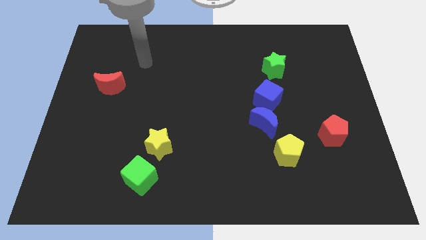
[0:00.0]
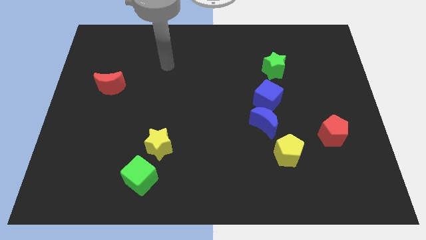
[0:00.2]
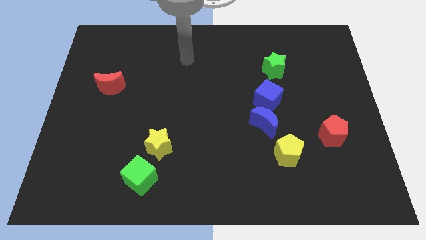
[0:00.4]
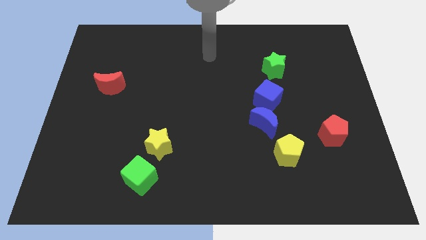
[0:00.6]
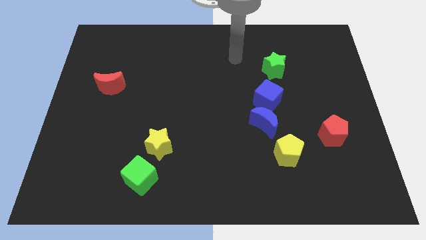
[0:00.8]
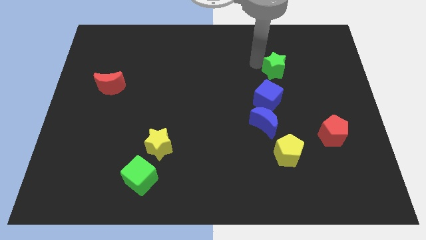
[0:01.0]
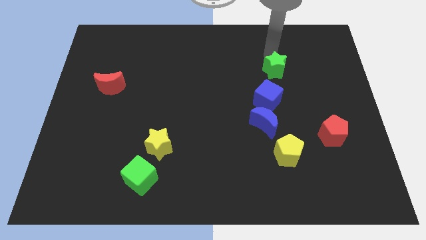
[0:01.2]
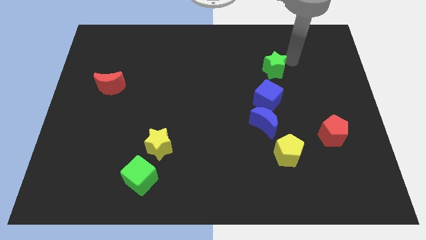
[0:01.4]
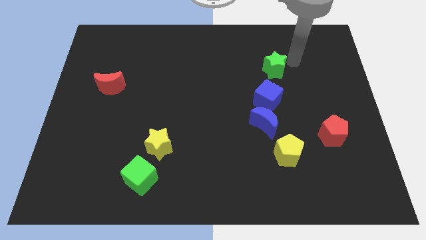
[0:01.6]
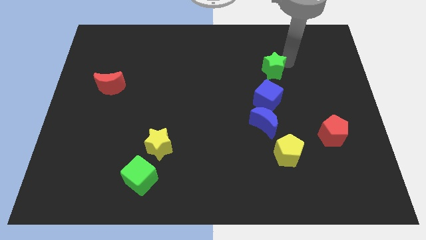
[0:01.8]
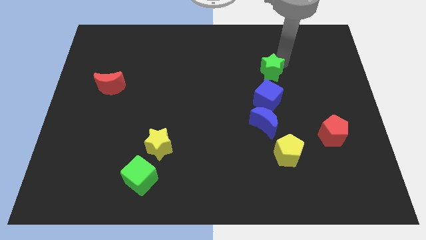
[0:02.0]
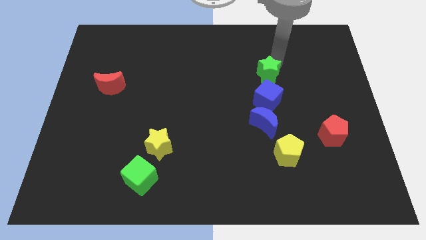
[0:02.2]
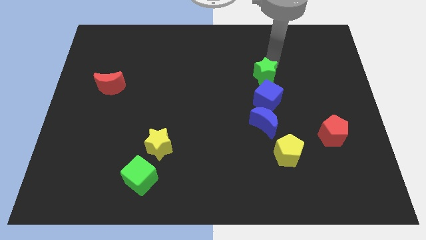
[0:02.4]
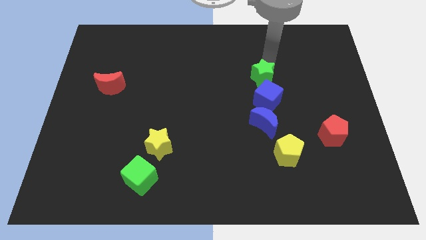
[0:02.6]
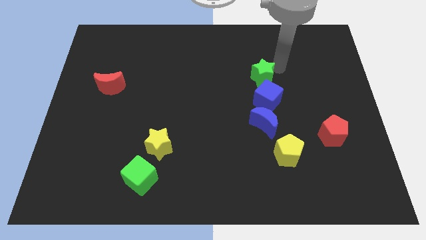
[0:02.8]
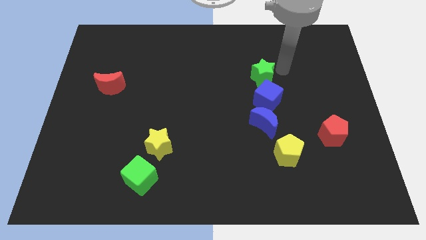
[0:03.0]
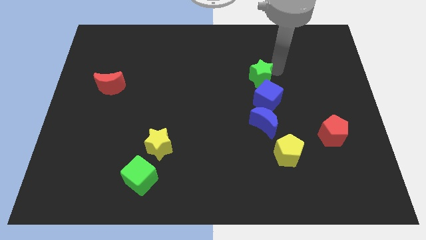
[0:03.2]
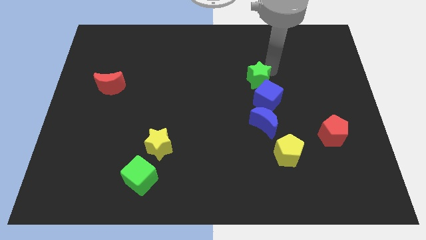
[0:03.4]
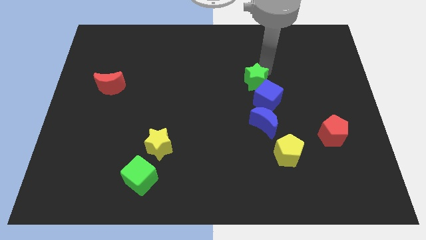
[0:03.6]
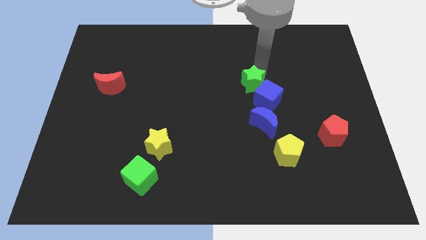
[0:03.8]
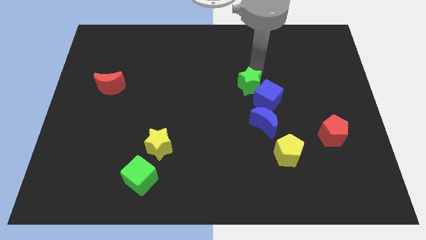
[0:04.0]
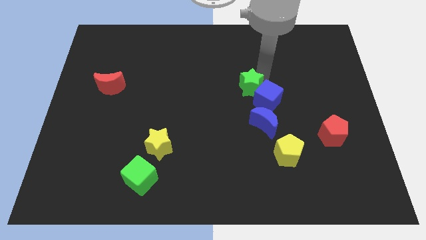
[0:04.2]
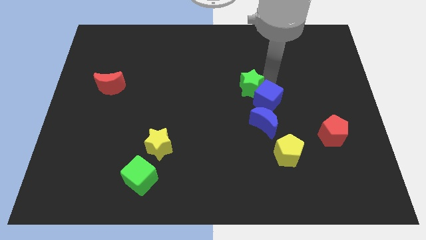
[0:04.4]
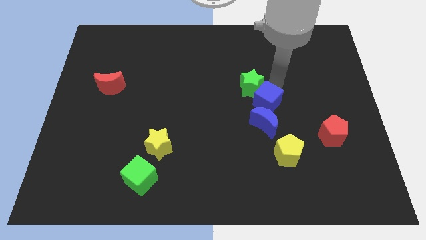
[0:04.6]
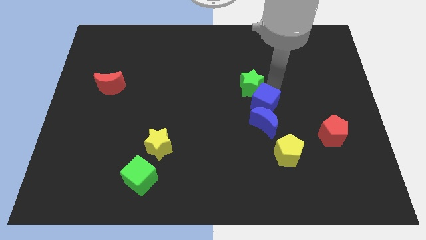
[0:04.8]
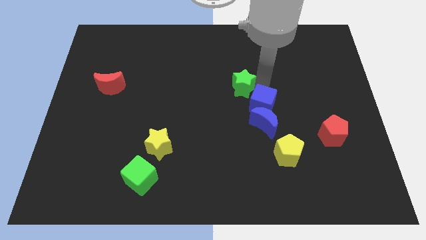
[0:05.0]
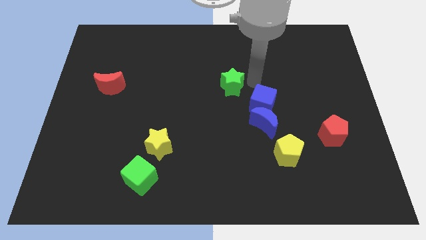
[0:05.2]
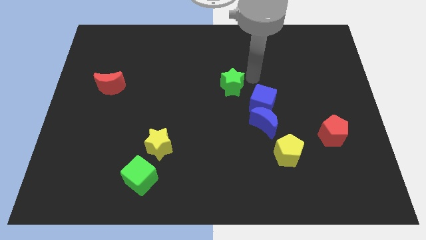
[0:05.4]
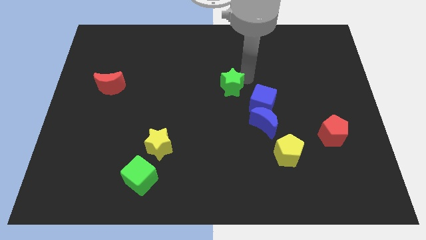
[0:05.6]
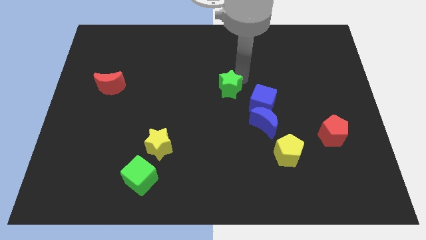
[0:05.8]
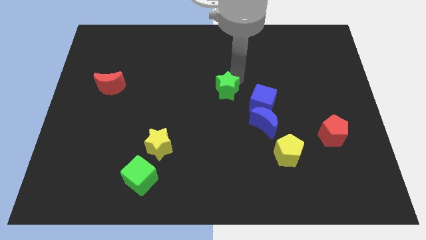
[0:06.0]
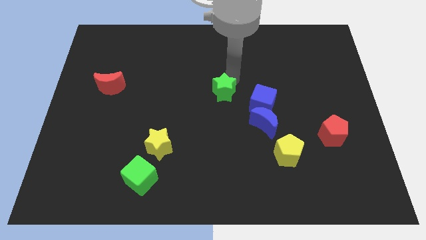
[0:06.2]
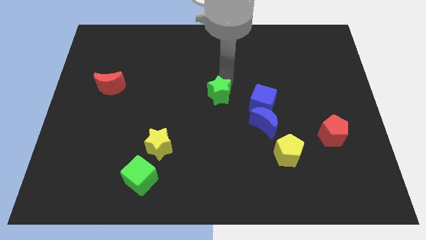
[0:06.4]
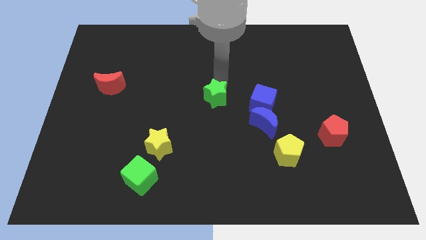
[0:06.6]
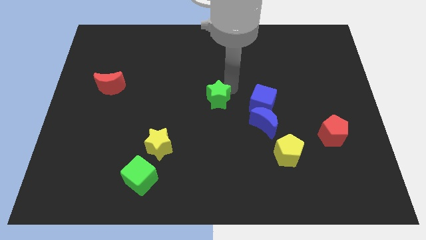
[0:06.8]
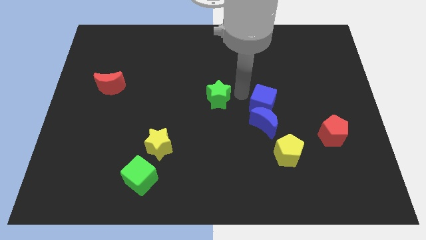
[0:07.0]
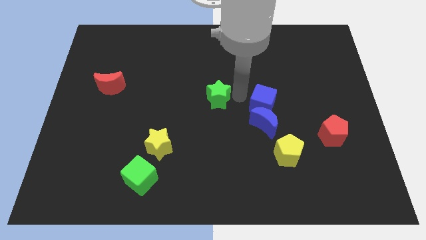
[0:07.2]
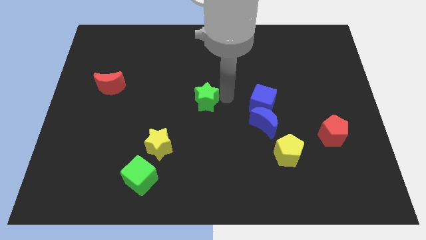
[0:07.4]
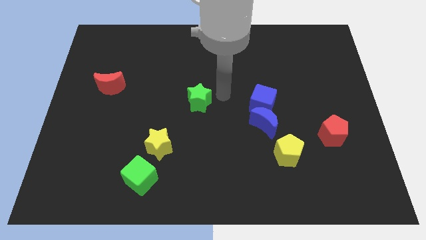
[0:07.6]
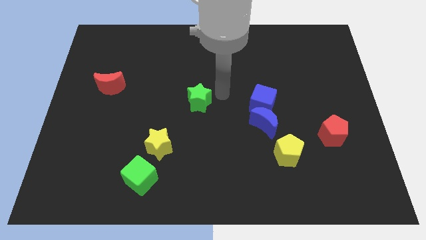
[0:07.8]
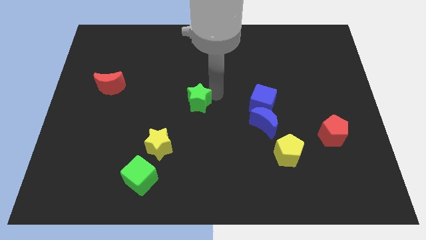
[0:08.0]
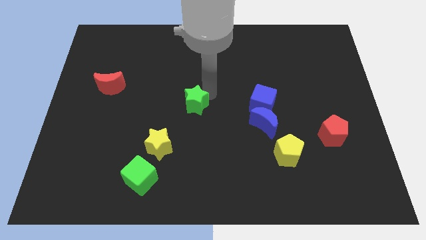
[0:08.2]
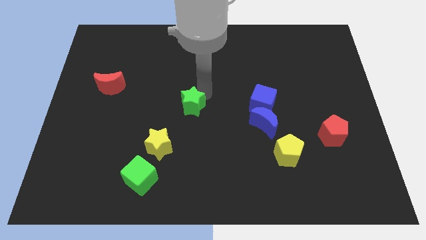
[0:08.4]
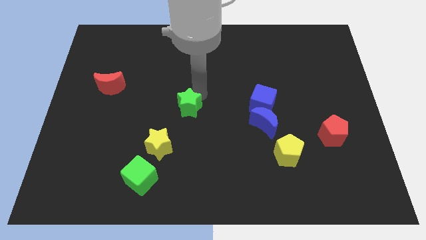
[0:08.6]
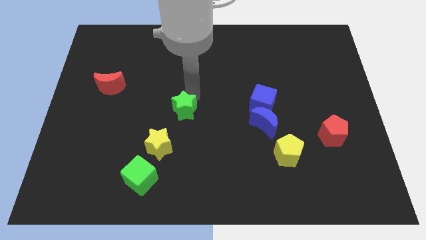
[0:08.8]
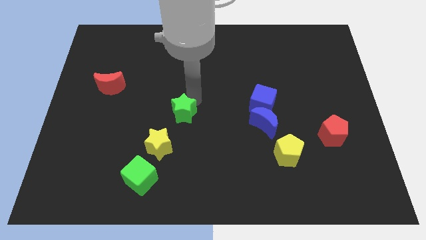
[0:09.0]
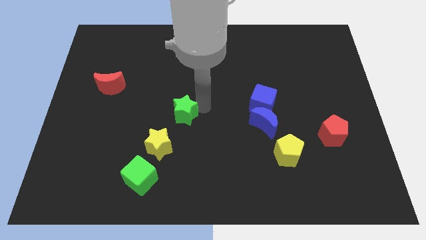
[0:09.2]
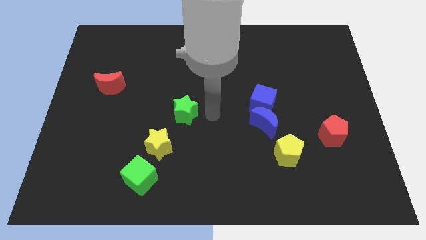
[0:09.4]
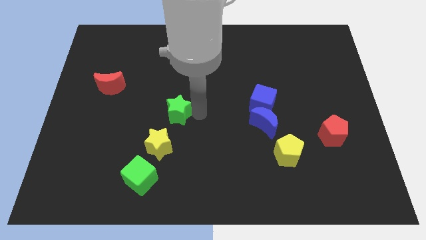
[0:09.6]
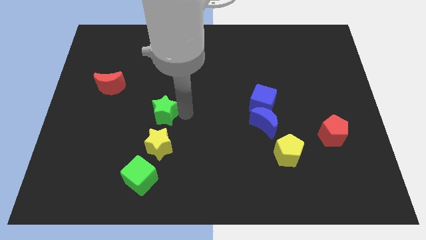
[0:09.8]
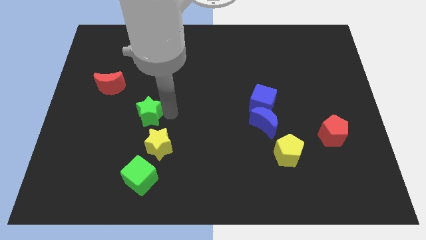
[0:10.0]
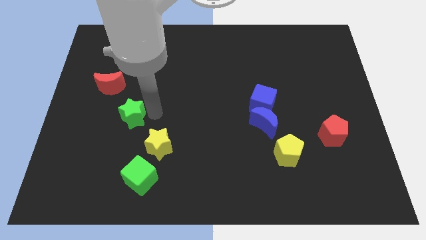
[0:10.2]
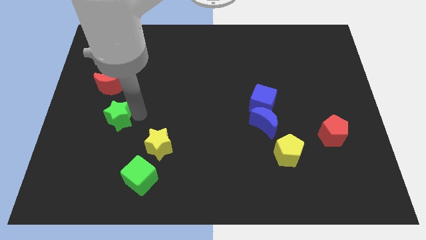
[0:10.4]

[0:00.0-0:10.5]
move the green star to the bottom side of the red moon

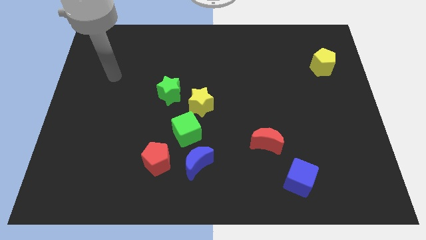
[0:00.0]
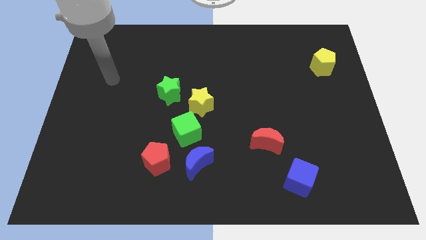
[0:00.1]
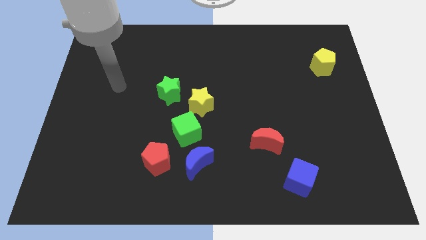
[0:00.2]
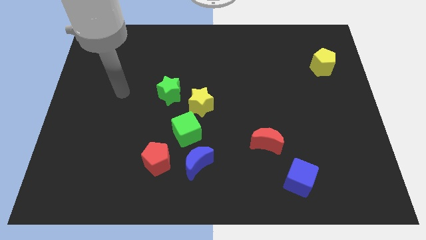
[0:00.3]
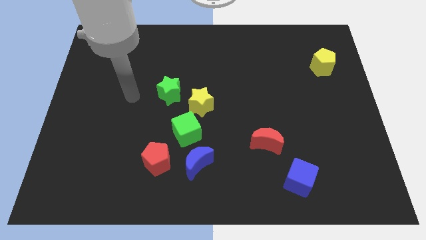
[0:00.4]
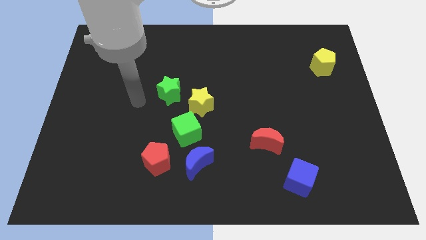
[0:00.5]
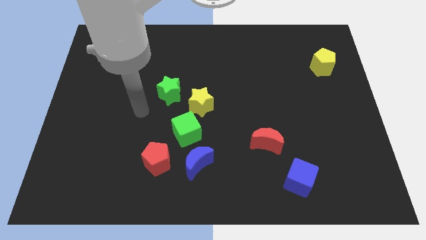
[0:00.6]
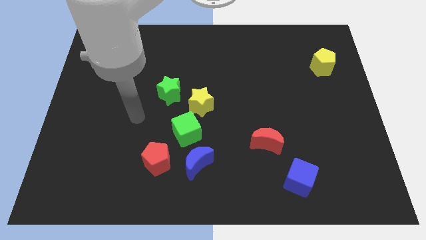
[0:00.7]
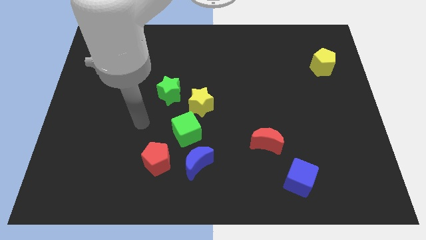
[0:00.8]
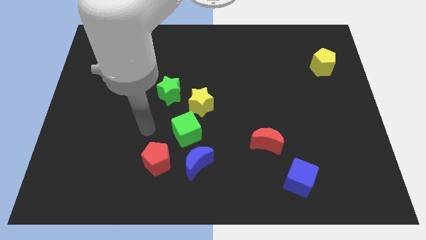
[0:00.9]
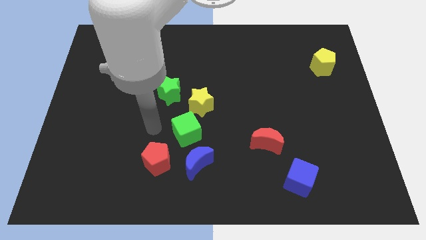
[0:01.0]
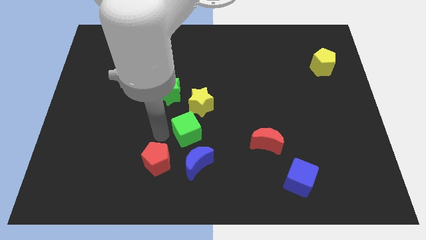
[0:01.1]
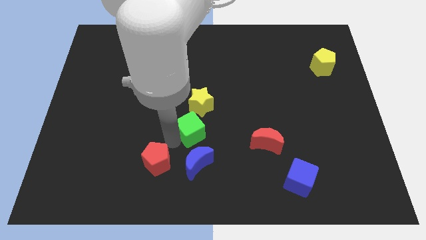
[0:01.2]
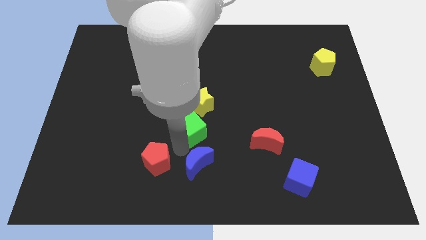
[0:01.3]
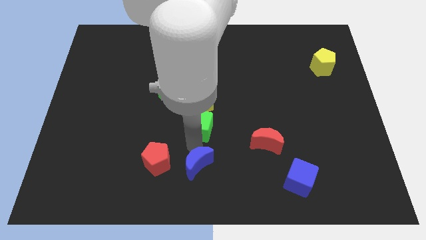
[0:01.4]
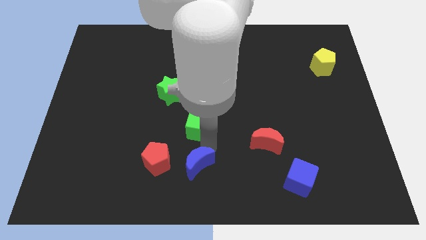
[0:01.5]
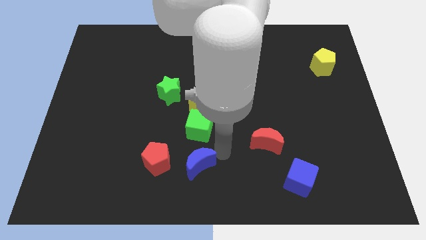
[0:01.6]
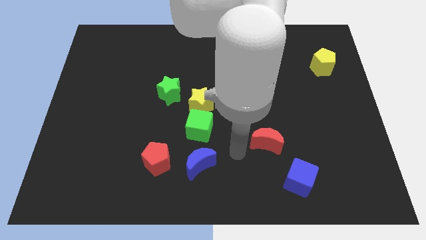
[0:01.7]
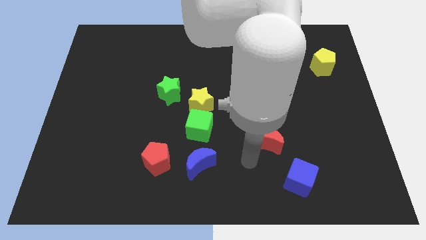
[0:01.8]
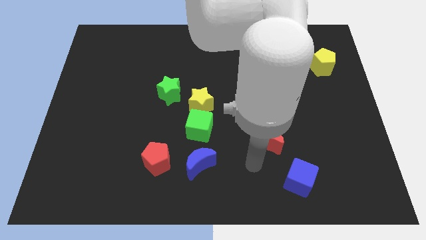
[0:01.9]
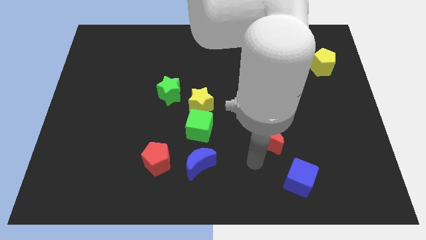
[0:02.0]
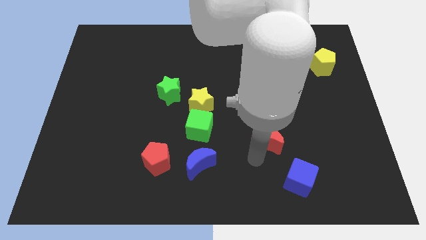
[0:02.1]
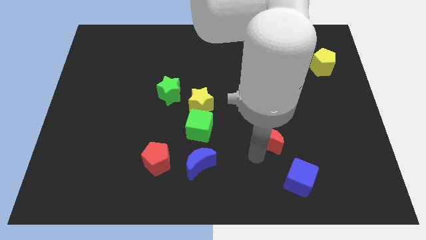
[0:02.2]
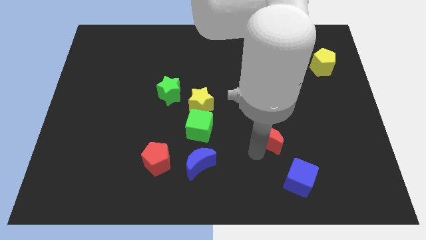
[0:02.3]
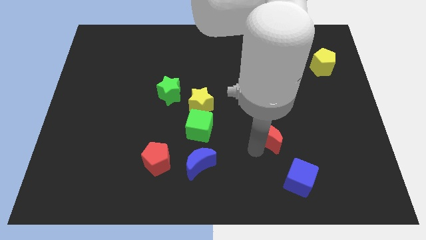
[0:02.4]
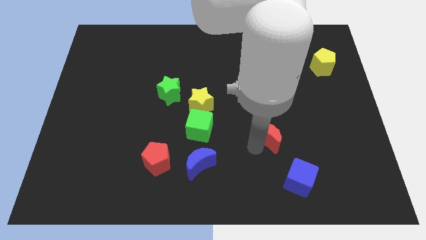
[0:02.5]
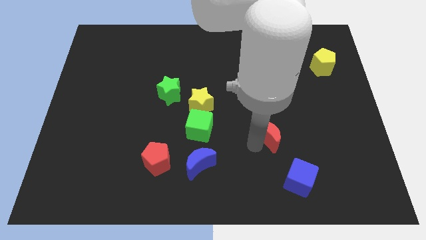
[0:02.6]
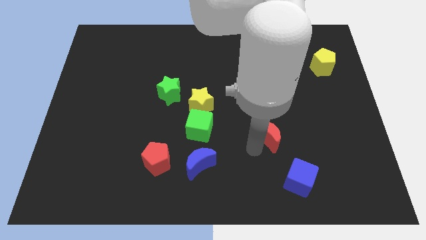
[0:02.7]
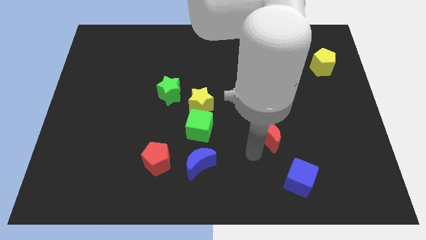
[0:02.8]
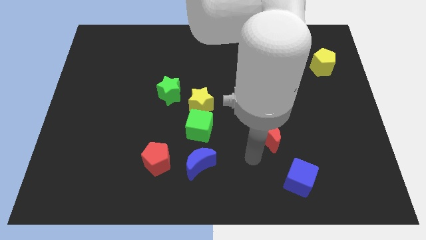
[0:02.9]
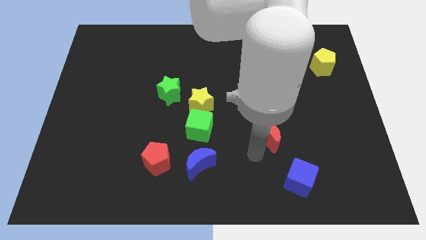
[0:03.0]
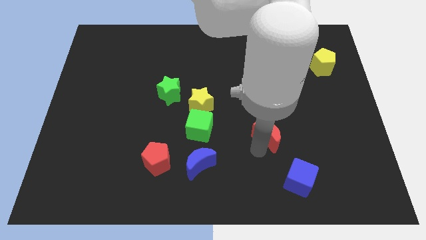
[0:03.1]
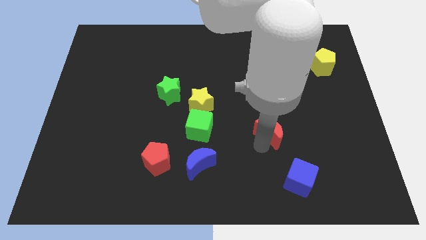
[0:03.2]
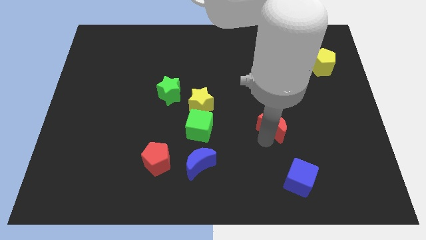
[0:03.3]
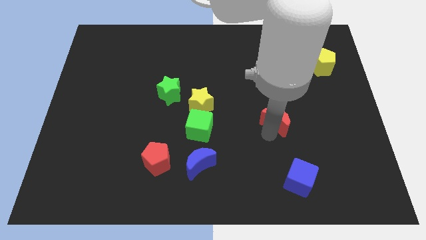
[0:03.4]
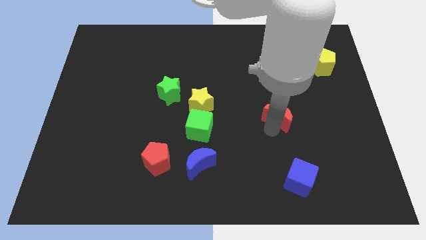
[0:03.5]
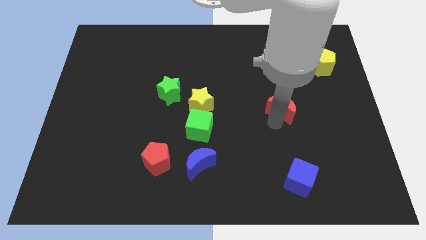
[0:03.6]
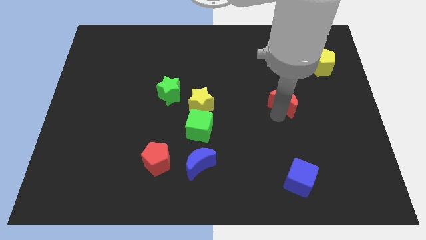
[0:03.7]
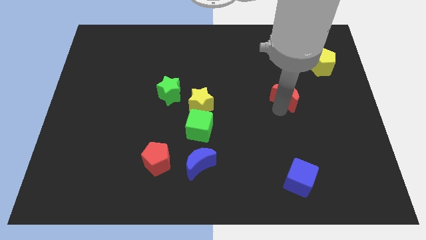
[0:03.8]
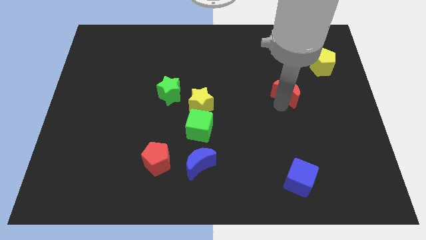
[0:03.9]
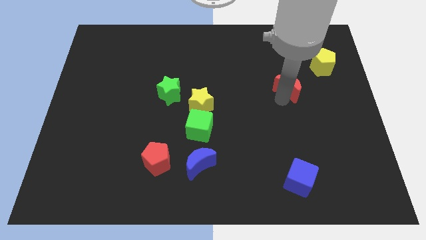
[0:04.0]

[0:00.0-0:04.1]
move the red moon diagonally down and to the left of the yellow pentagon
